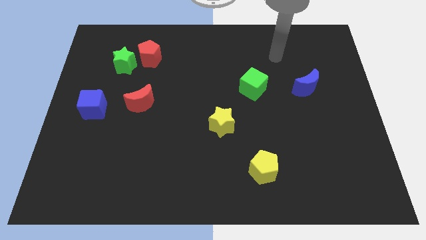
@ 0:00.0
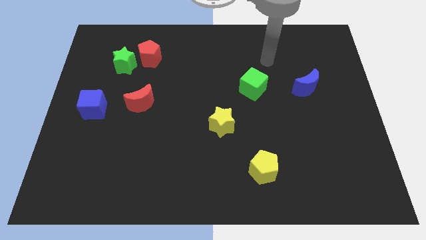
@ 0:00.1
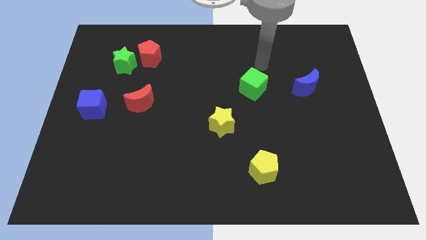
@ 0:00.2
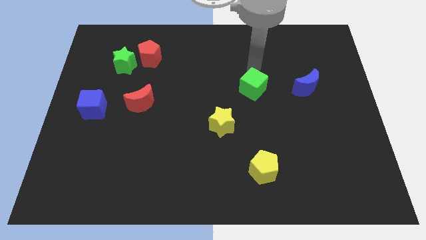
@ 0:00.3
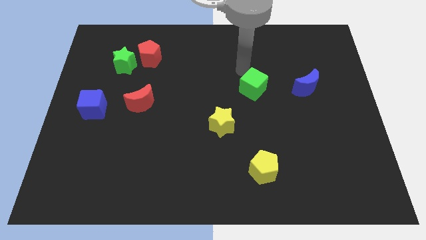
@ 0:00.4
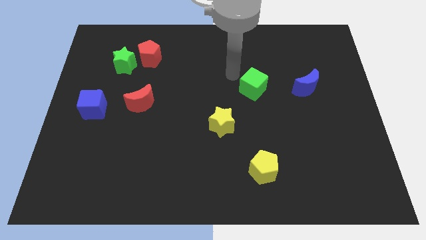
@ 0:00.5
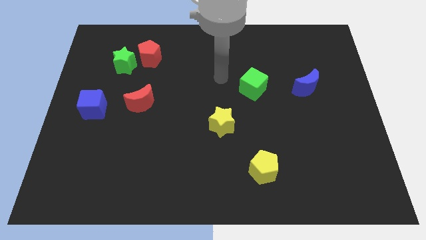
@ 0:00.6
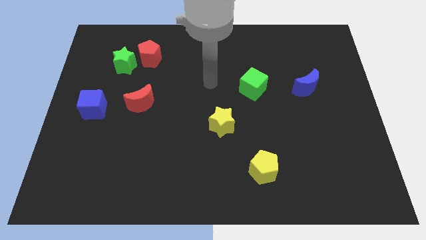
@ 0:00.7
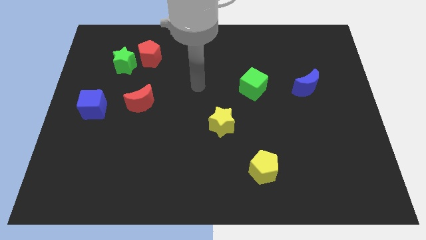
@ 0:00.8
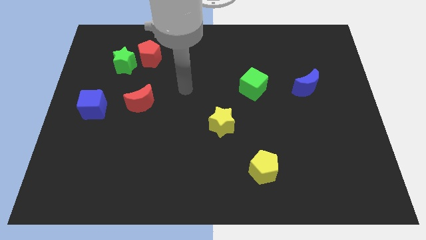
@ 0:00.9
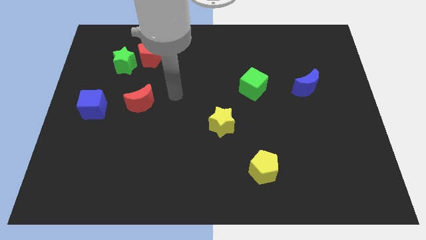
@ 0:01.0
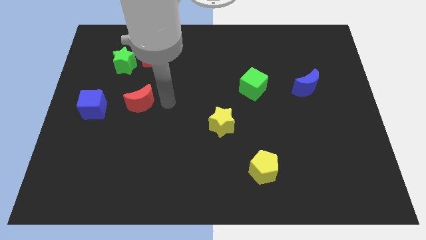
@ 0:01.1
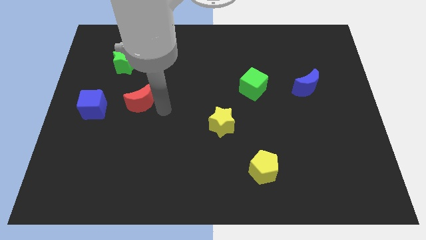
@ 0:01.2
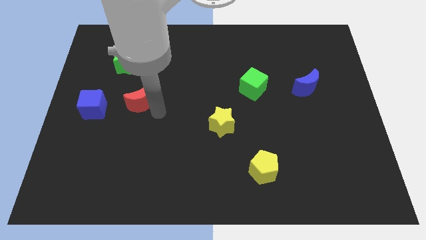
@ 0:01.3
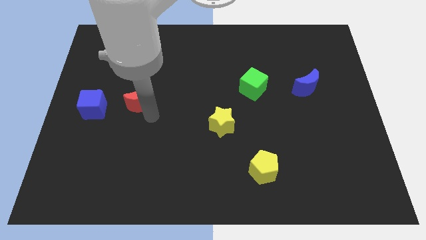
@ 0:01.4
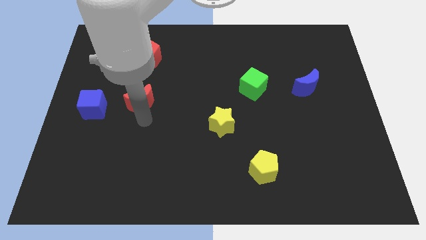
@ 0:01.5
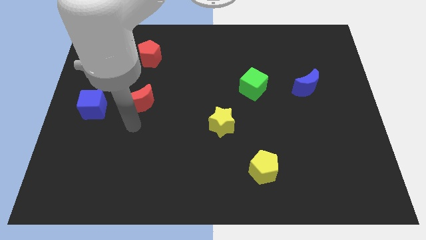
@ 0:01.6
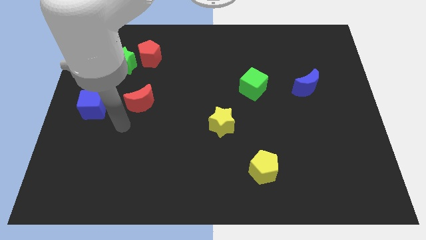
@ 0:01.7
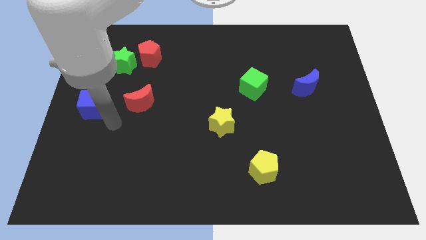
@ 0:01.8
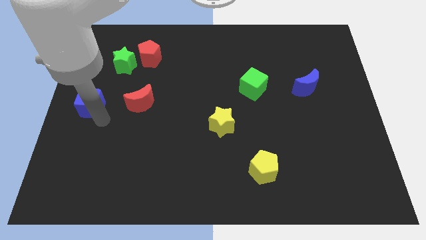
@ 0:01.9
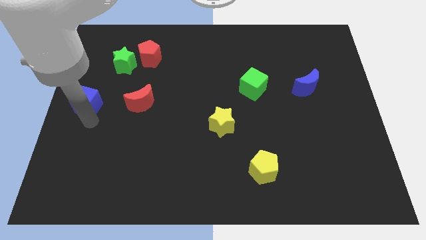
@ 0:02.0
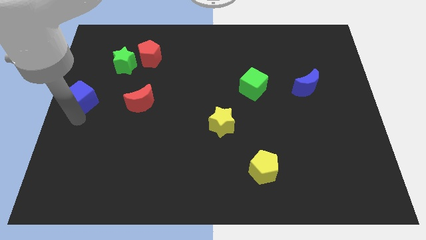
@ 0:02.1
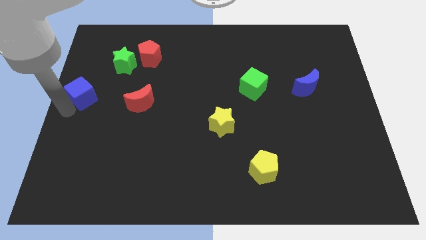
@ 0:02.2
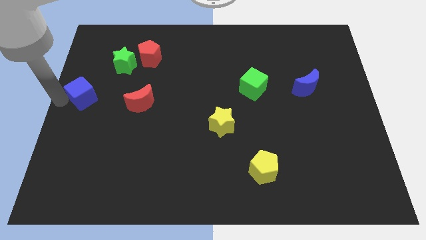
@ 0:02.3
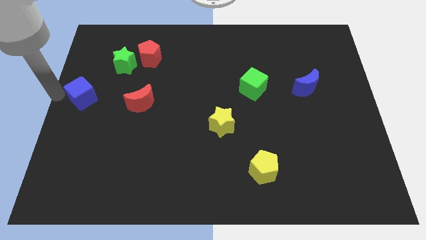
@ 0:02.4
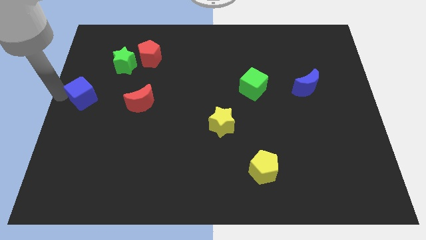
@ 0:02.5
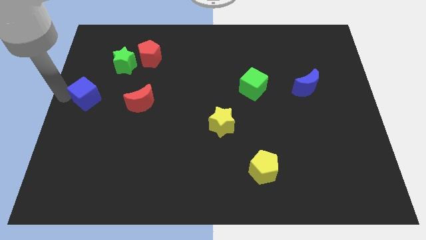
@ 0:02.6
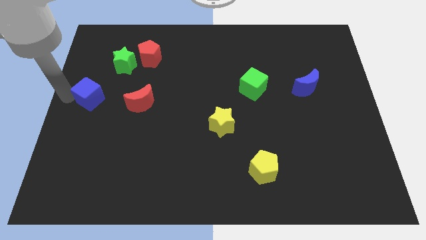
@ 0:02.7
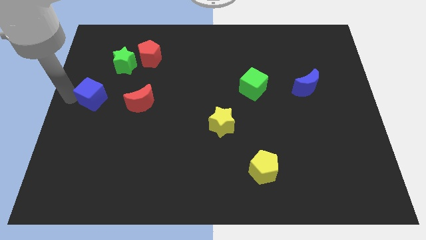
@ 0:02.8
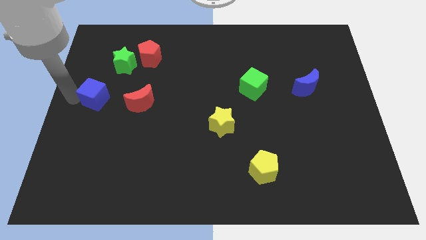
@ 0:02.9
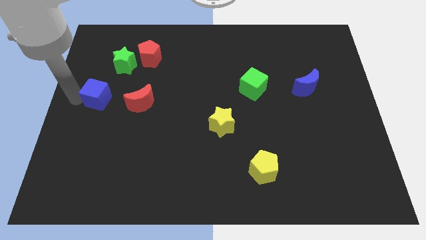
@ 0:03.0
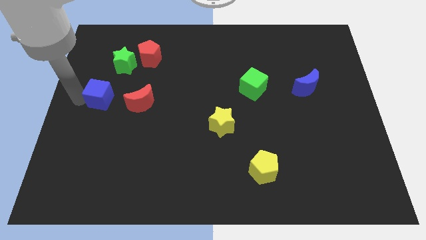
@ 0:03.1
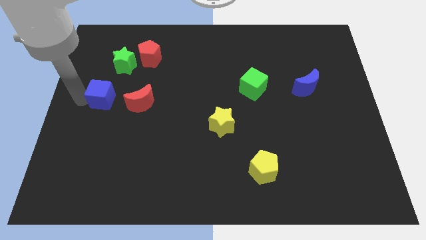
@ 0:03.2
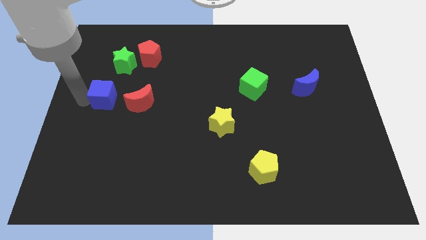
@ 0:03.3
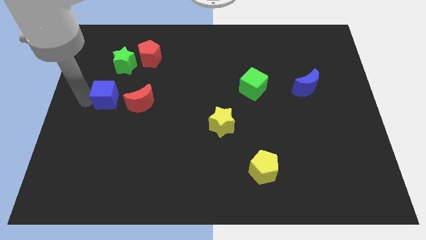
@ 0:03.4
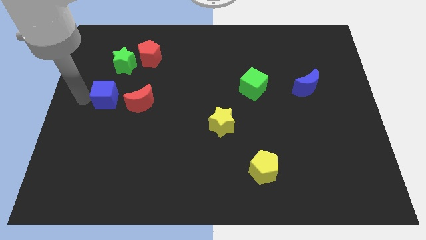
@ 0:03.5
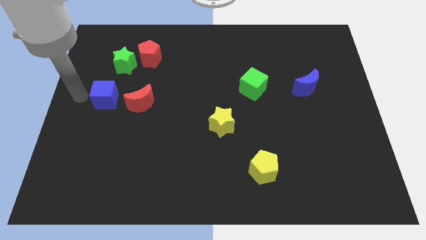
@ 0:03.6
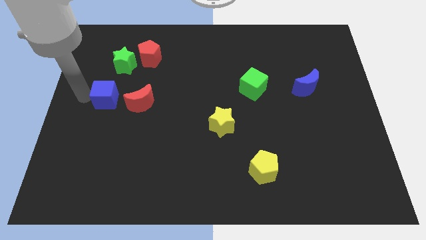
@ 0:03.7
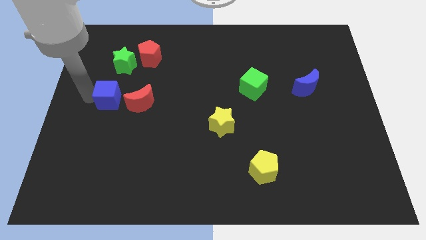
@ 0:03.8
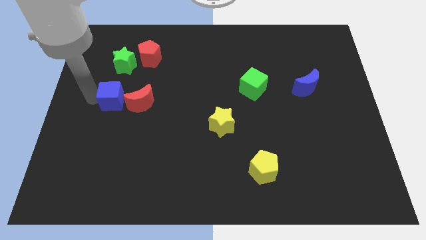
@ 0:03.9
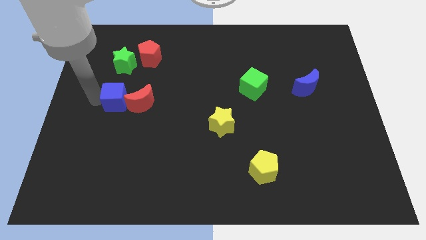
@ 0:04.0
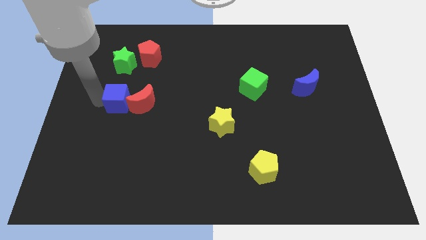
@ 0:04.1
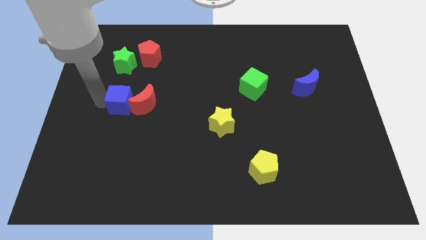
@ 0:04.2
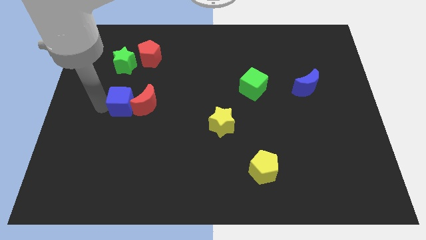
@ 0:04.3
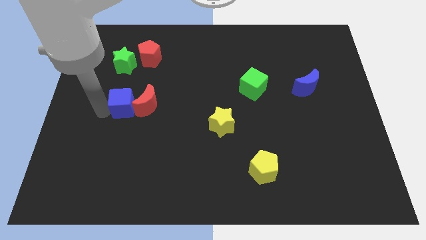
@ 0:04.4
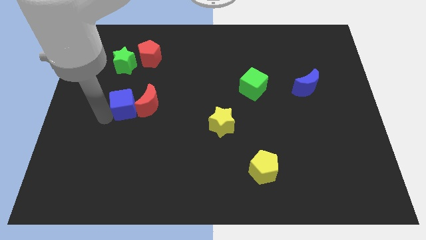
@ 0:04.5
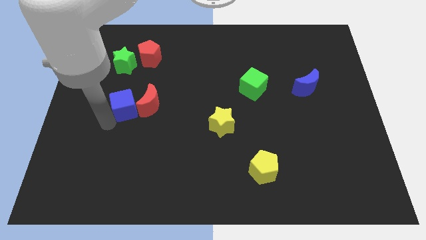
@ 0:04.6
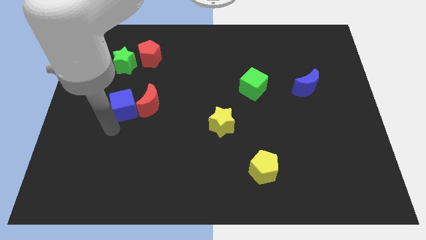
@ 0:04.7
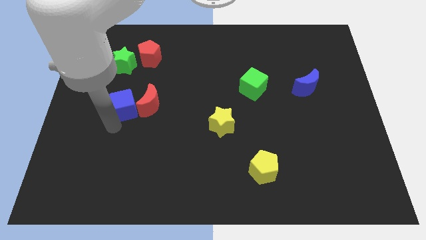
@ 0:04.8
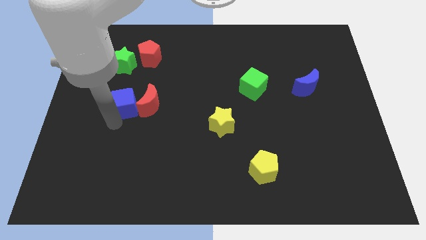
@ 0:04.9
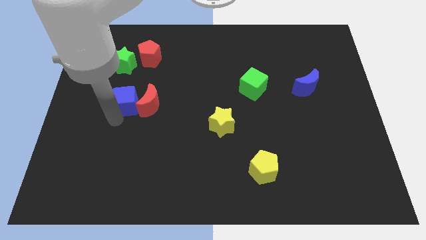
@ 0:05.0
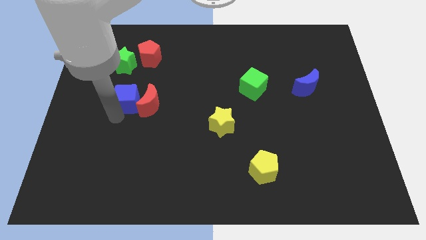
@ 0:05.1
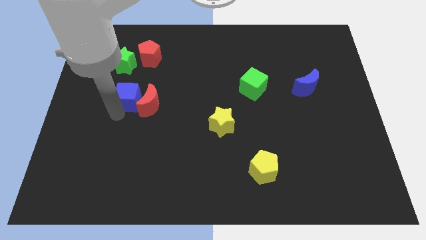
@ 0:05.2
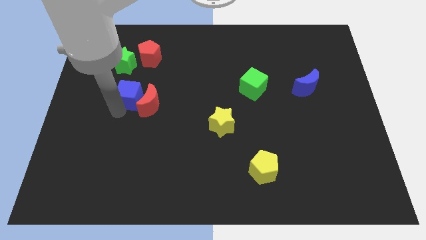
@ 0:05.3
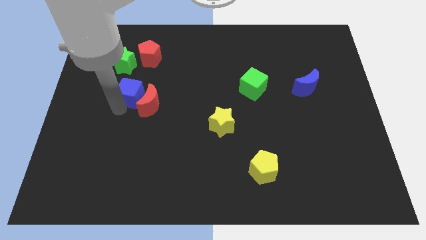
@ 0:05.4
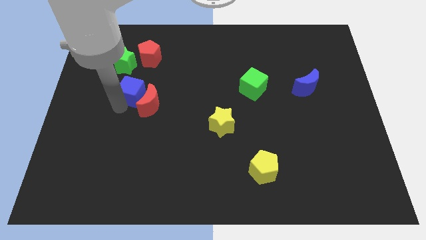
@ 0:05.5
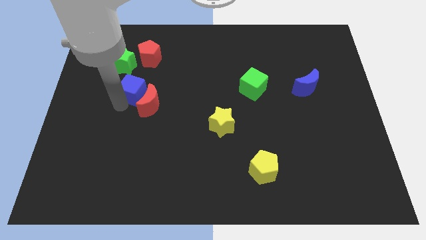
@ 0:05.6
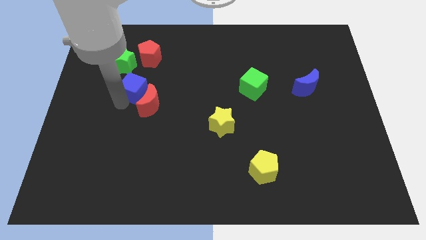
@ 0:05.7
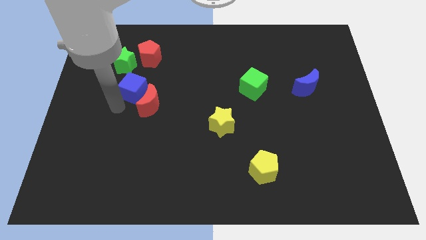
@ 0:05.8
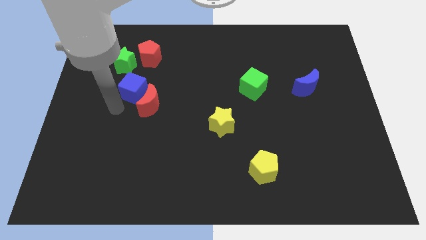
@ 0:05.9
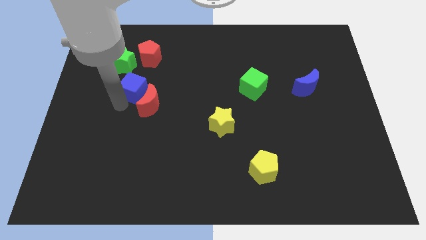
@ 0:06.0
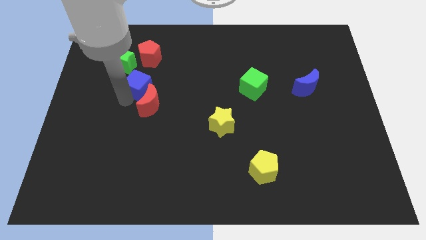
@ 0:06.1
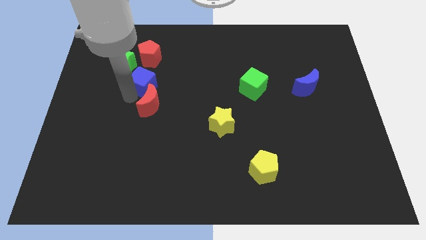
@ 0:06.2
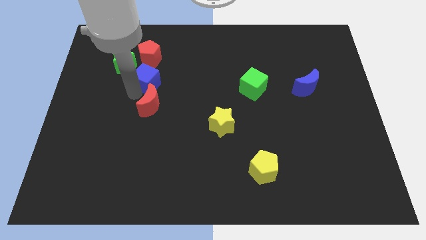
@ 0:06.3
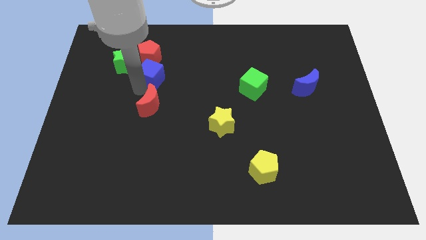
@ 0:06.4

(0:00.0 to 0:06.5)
move the blue cube right of the green star
